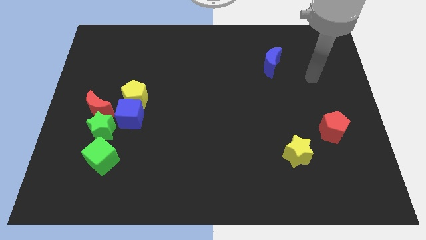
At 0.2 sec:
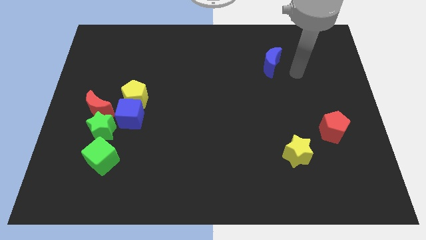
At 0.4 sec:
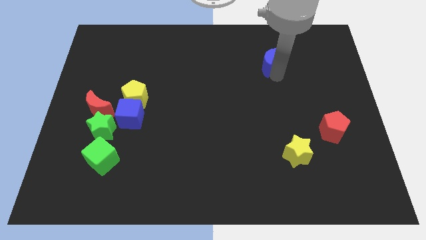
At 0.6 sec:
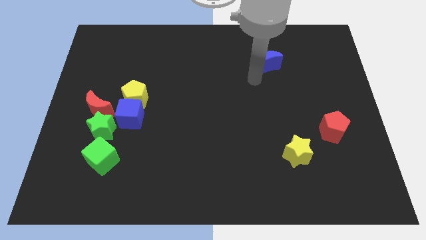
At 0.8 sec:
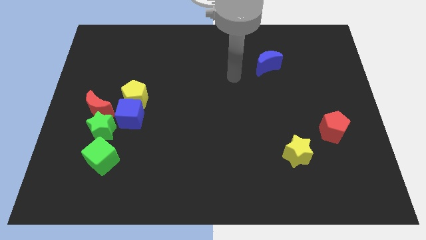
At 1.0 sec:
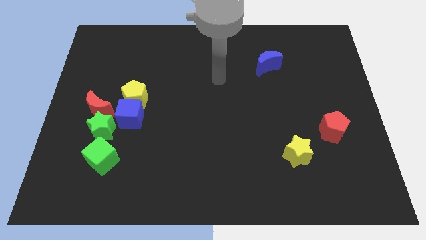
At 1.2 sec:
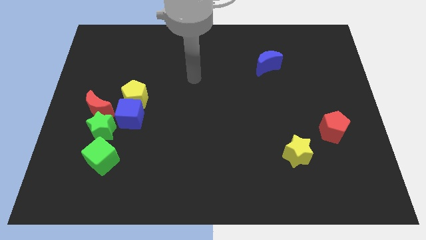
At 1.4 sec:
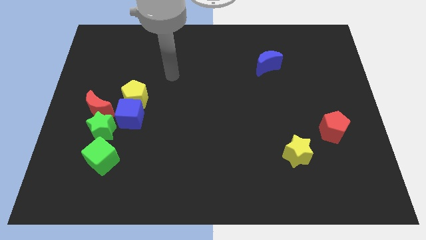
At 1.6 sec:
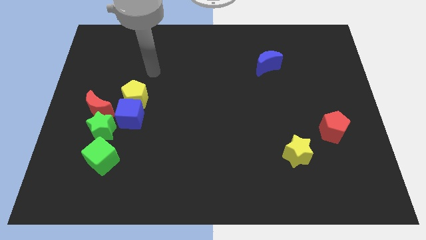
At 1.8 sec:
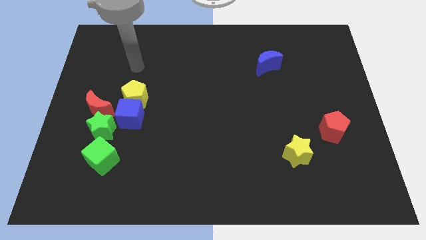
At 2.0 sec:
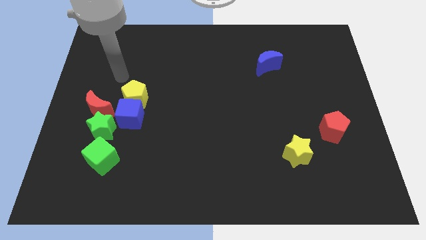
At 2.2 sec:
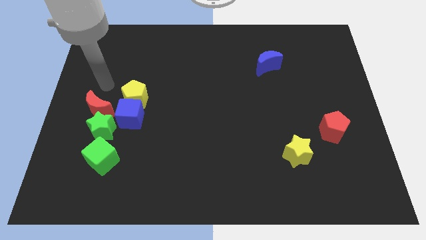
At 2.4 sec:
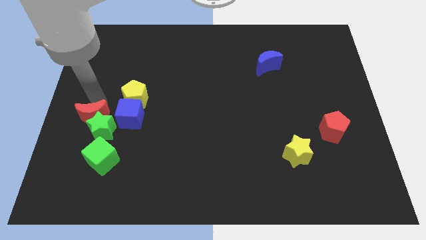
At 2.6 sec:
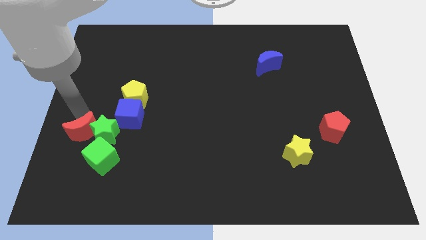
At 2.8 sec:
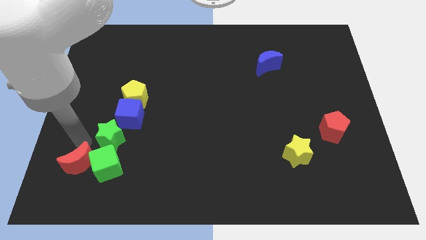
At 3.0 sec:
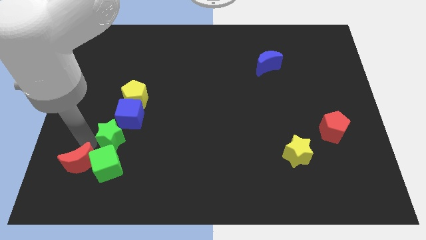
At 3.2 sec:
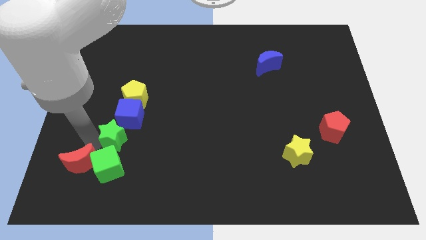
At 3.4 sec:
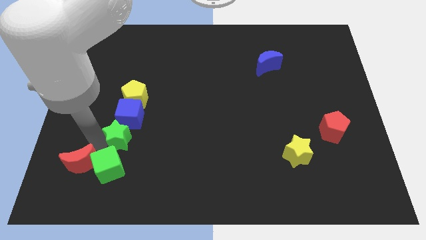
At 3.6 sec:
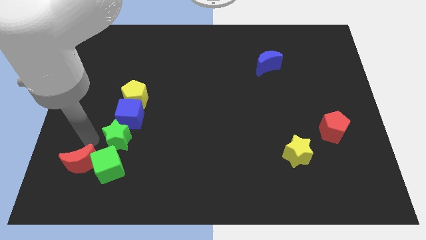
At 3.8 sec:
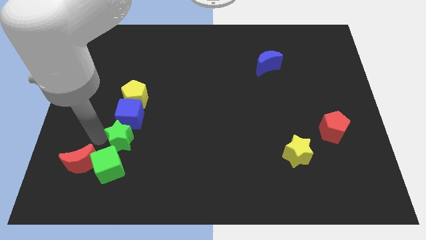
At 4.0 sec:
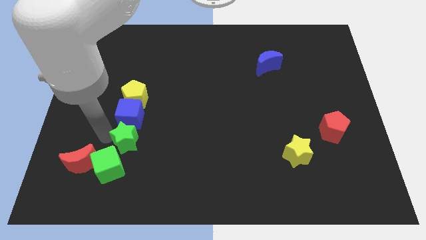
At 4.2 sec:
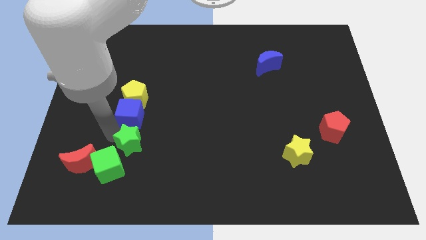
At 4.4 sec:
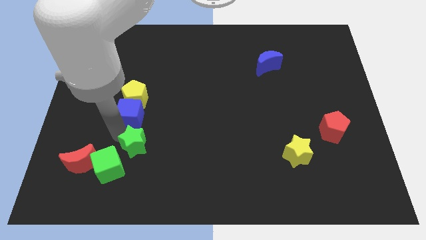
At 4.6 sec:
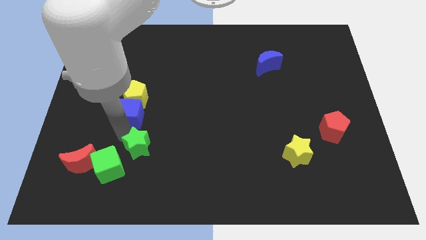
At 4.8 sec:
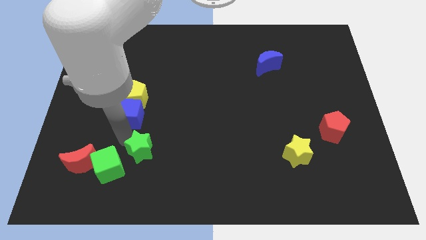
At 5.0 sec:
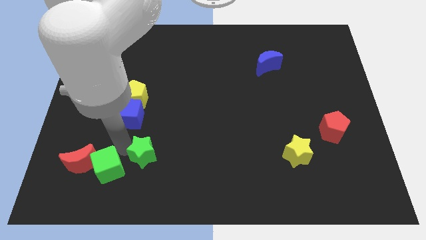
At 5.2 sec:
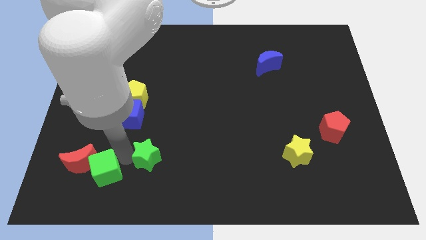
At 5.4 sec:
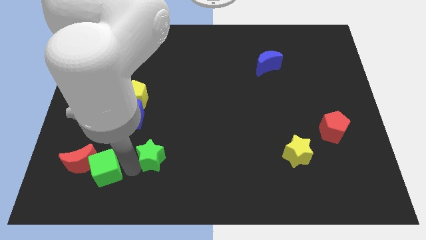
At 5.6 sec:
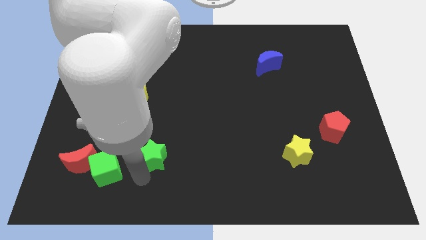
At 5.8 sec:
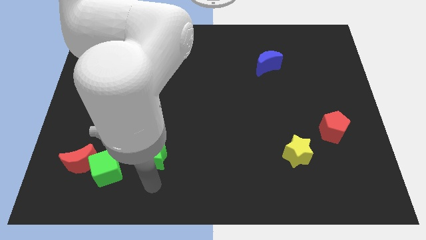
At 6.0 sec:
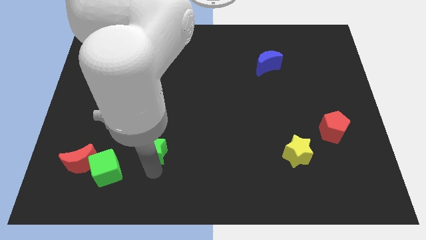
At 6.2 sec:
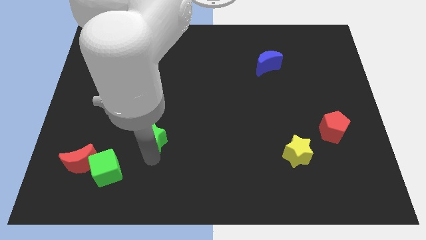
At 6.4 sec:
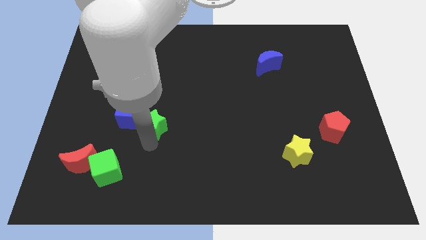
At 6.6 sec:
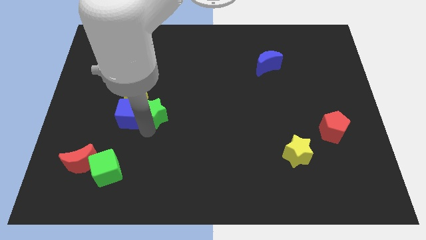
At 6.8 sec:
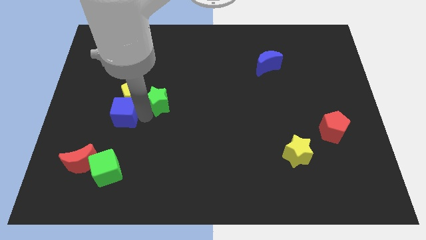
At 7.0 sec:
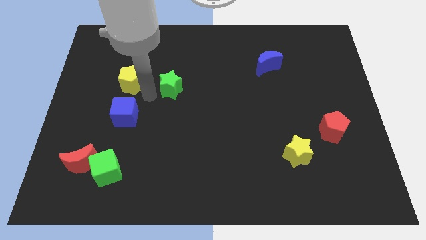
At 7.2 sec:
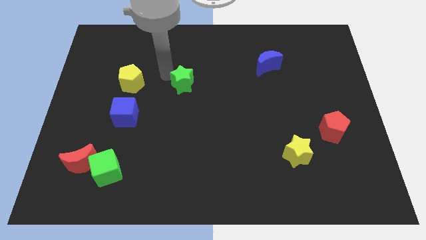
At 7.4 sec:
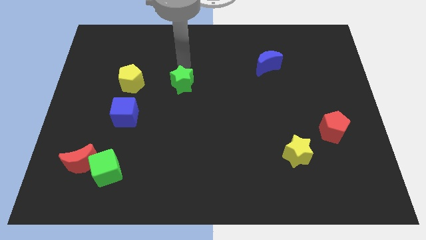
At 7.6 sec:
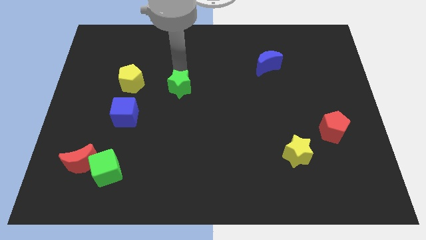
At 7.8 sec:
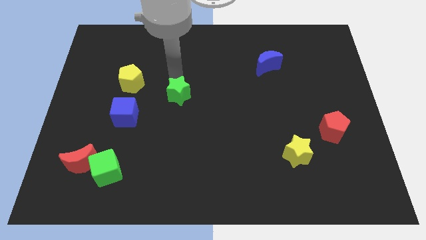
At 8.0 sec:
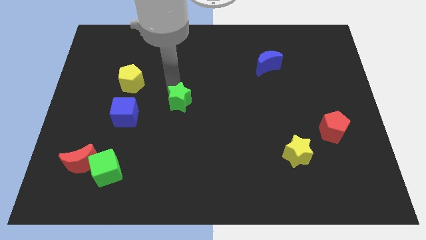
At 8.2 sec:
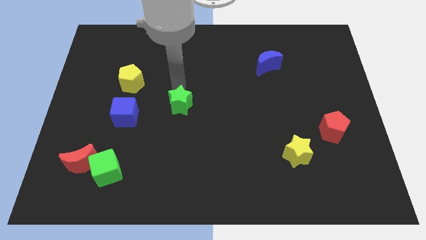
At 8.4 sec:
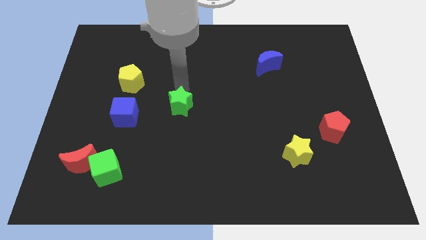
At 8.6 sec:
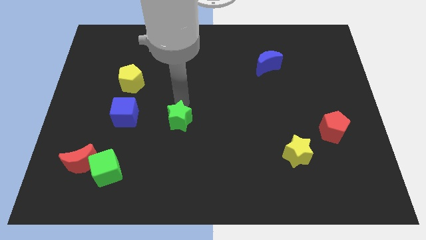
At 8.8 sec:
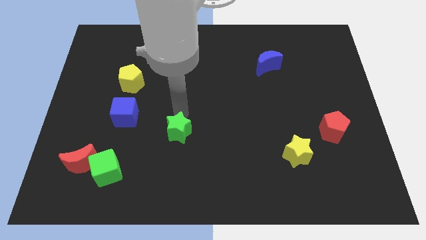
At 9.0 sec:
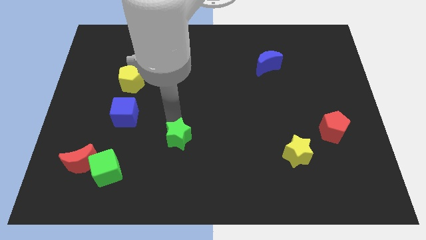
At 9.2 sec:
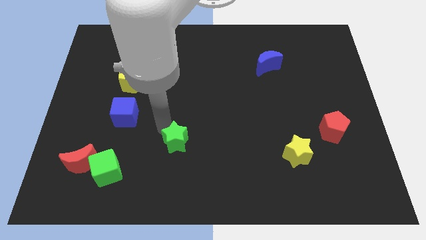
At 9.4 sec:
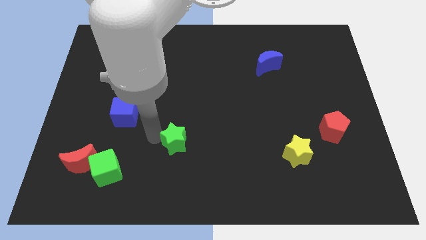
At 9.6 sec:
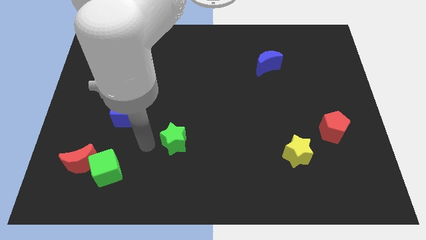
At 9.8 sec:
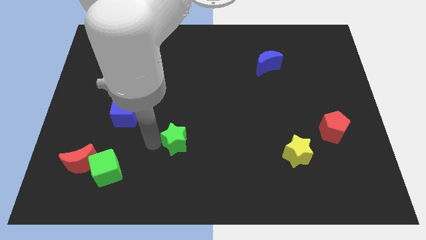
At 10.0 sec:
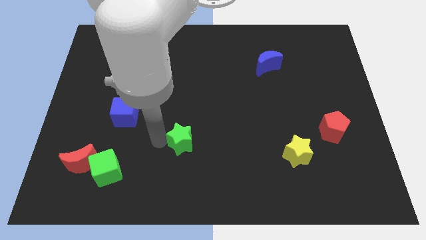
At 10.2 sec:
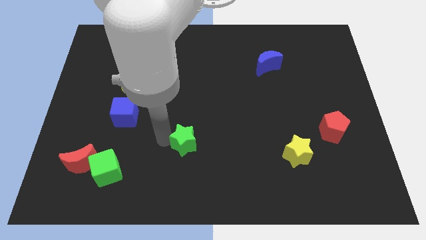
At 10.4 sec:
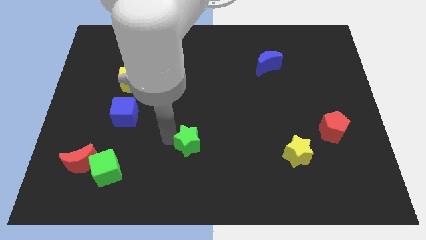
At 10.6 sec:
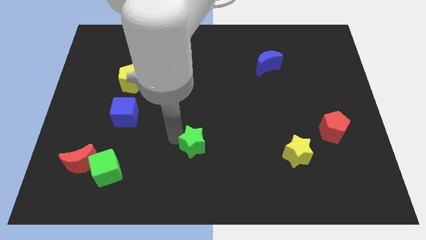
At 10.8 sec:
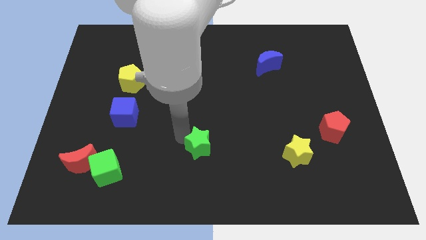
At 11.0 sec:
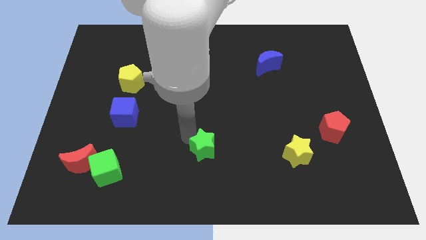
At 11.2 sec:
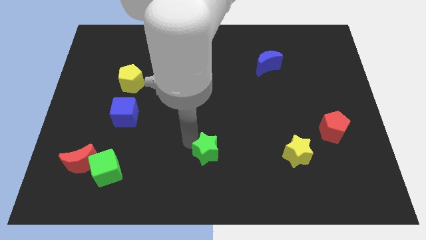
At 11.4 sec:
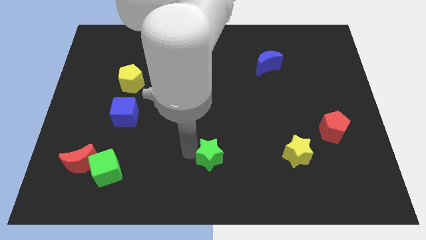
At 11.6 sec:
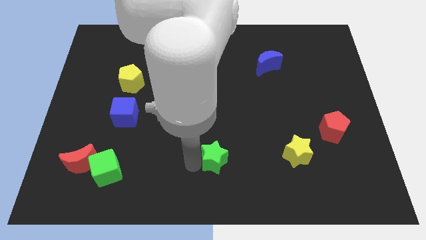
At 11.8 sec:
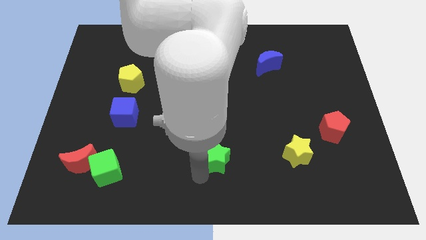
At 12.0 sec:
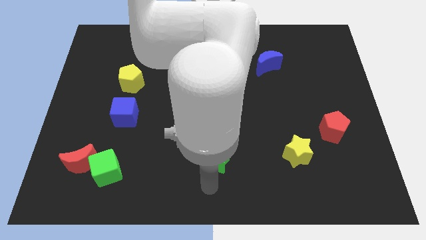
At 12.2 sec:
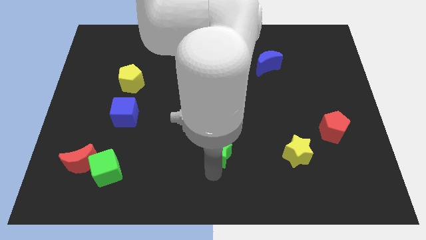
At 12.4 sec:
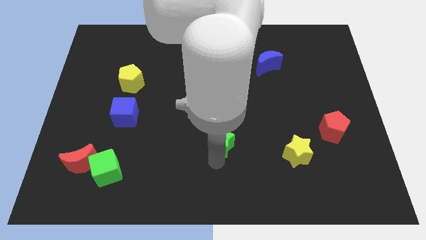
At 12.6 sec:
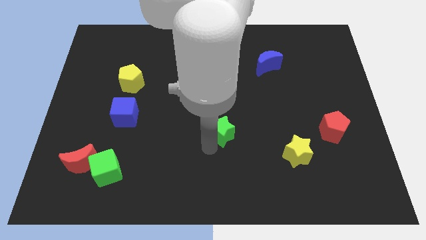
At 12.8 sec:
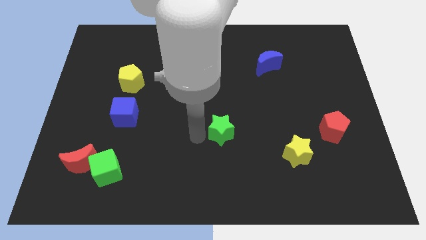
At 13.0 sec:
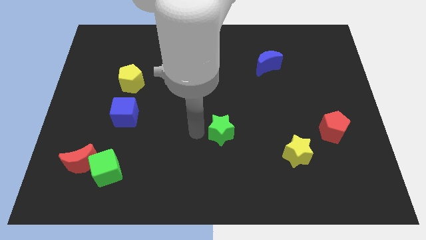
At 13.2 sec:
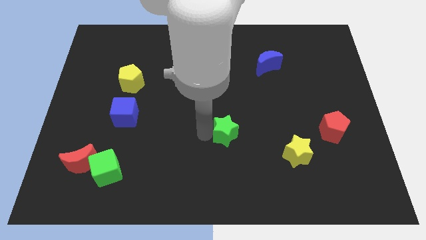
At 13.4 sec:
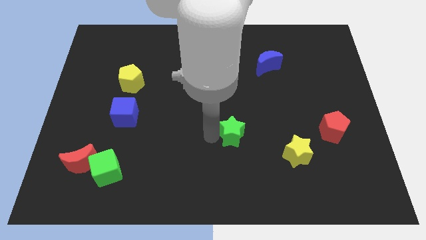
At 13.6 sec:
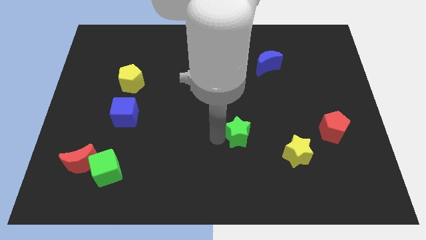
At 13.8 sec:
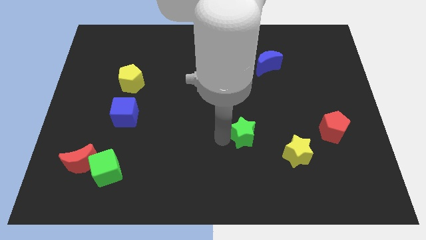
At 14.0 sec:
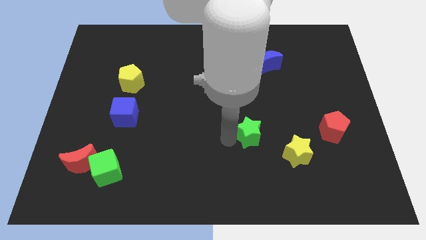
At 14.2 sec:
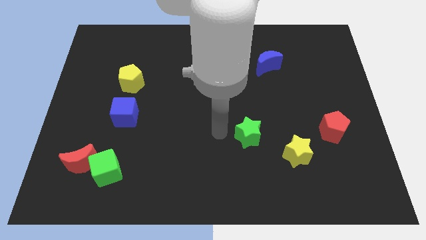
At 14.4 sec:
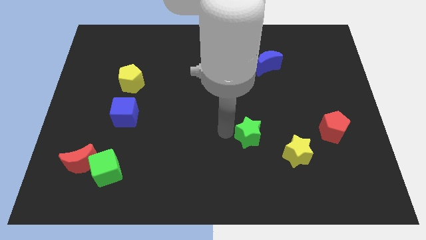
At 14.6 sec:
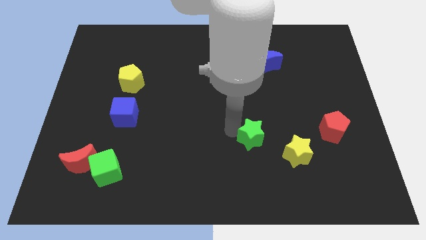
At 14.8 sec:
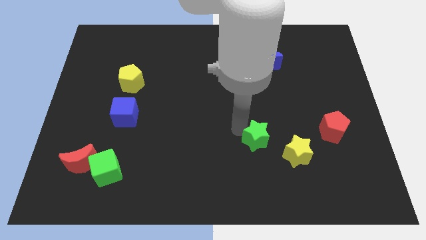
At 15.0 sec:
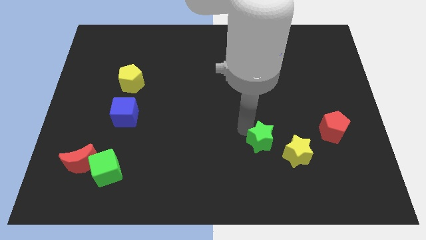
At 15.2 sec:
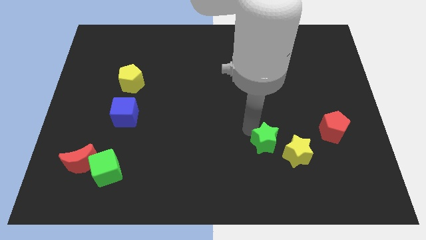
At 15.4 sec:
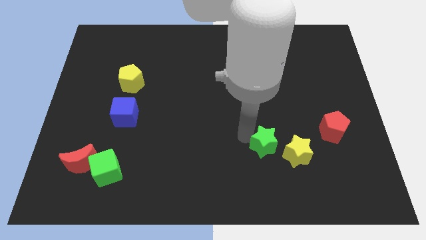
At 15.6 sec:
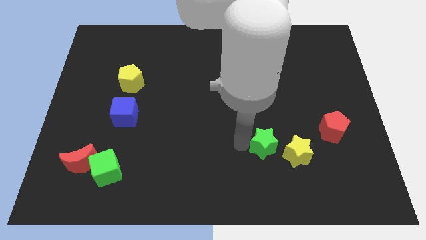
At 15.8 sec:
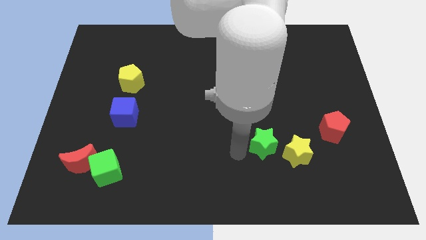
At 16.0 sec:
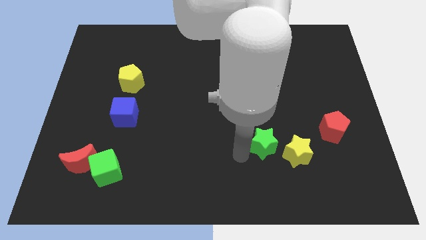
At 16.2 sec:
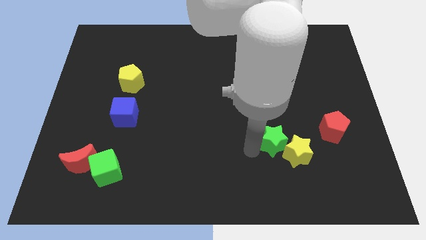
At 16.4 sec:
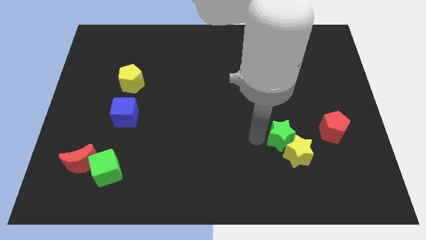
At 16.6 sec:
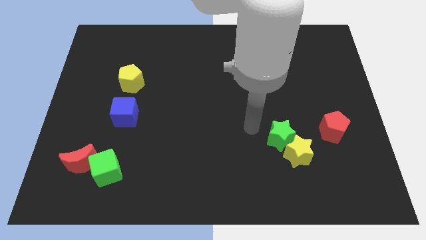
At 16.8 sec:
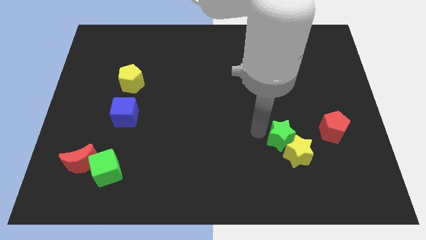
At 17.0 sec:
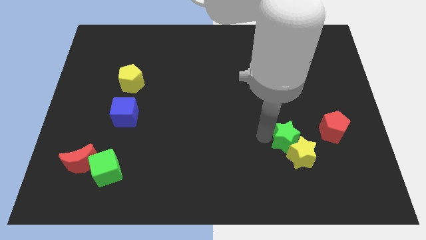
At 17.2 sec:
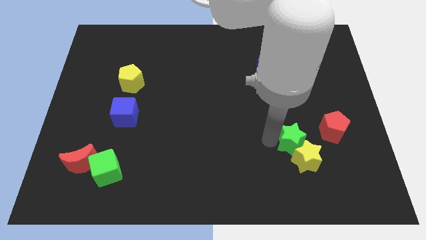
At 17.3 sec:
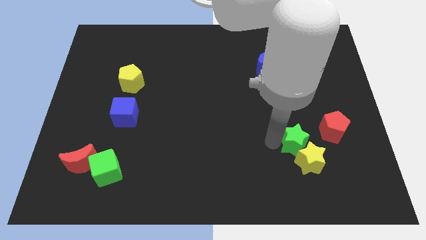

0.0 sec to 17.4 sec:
slide the green star to the bottom left side of the red pentagon
